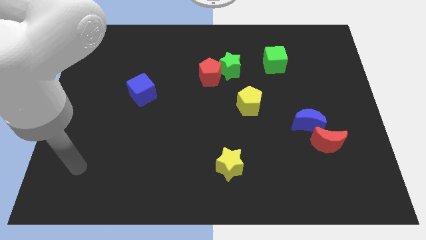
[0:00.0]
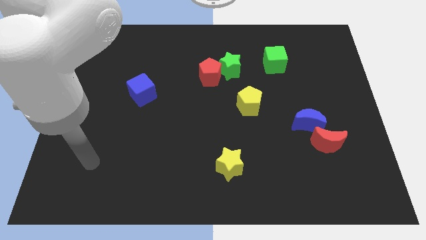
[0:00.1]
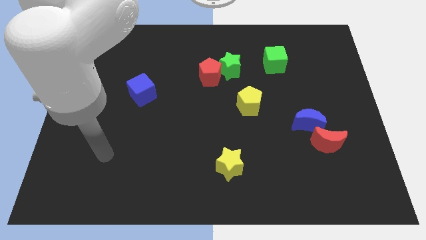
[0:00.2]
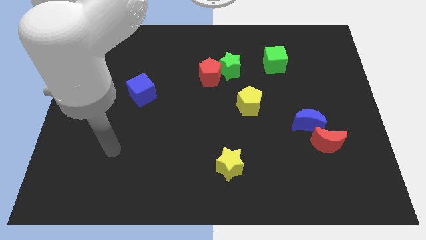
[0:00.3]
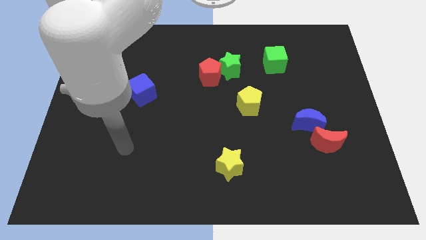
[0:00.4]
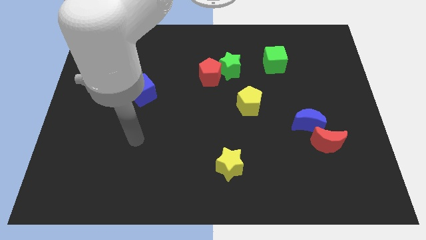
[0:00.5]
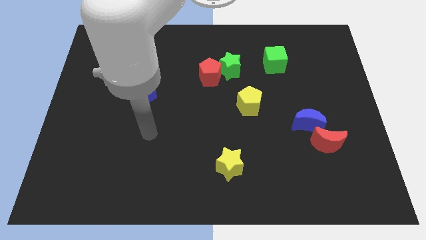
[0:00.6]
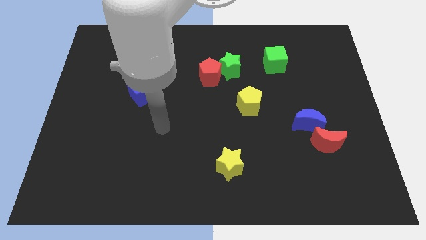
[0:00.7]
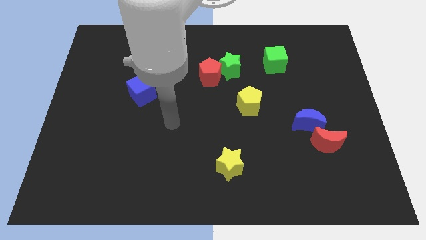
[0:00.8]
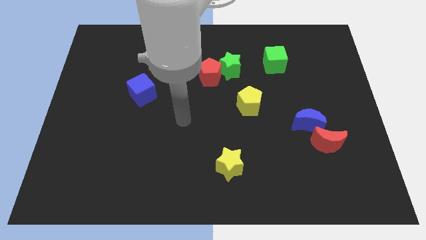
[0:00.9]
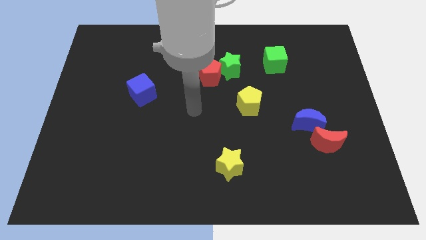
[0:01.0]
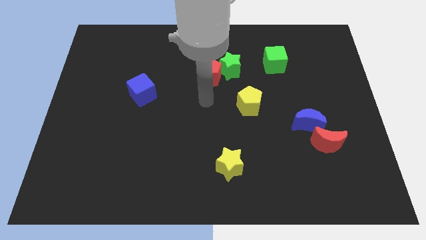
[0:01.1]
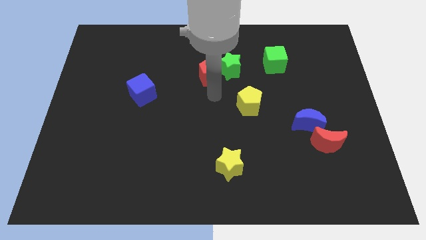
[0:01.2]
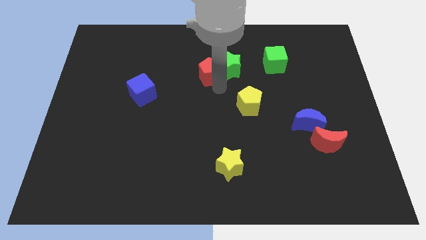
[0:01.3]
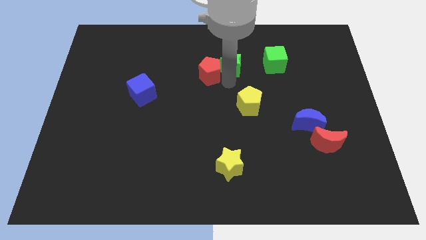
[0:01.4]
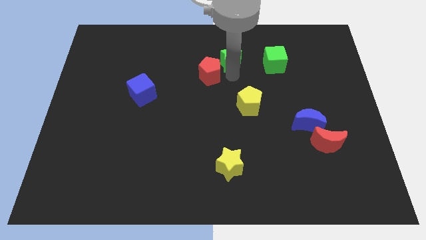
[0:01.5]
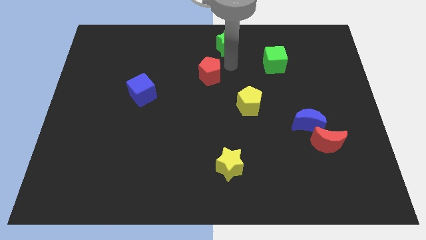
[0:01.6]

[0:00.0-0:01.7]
separate the red pentagon from the green star

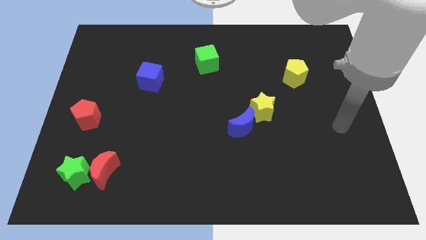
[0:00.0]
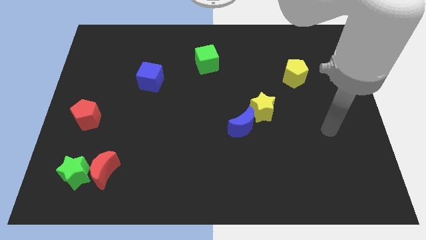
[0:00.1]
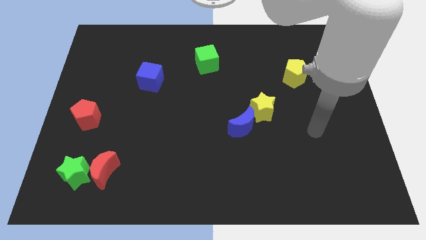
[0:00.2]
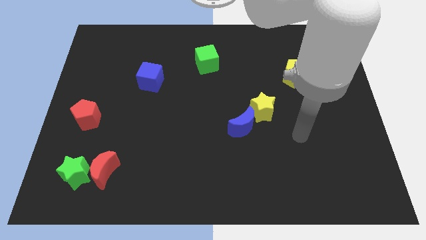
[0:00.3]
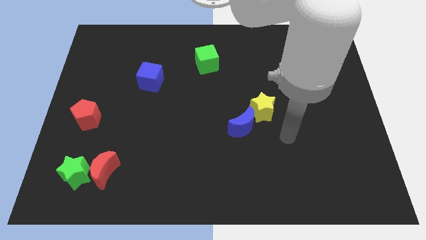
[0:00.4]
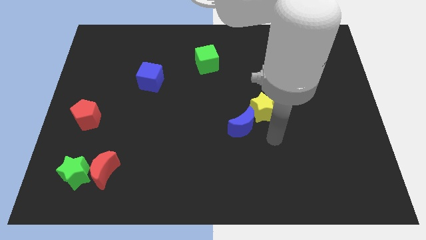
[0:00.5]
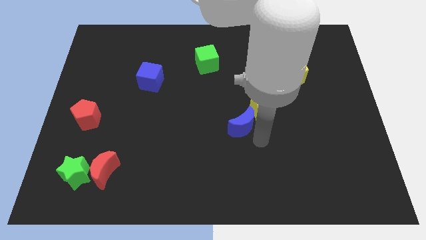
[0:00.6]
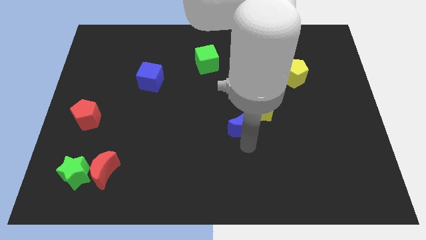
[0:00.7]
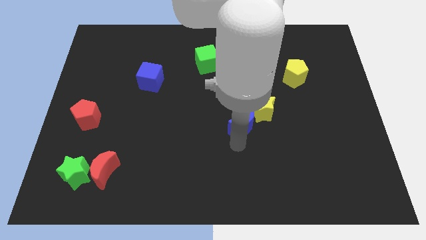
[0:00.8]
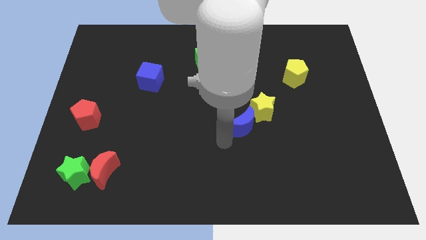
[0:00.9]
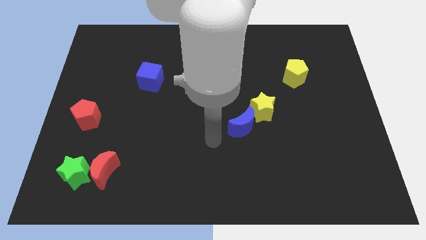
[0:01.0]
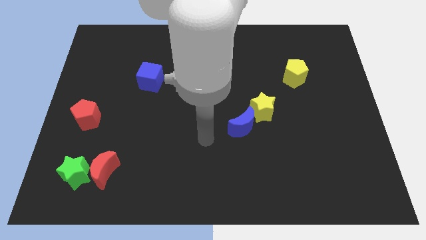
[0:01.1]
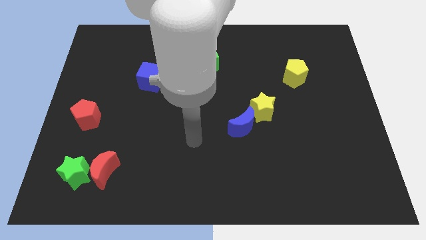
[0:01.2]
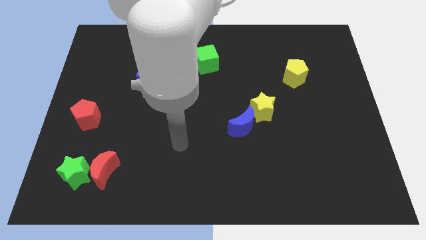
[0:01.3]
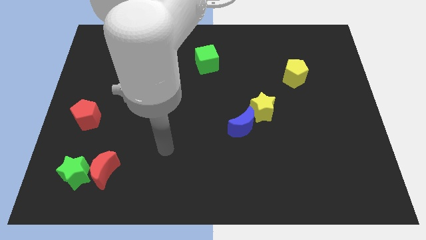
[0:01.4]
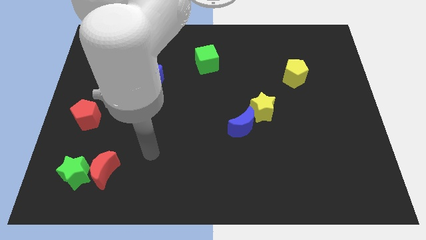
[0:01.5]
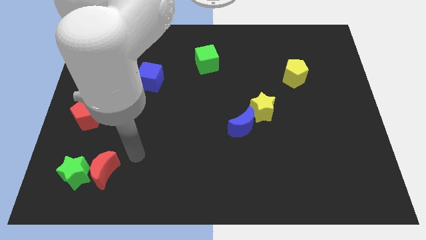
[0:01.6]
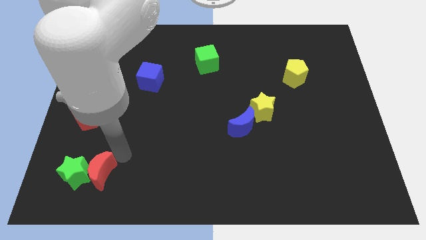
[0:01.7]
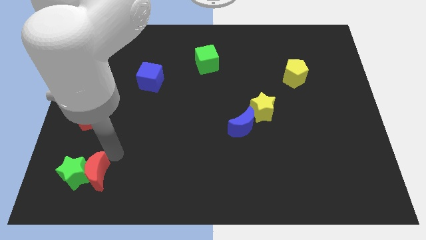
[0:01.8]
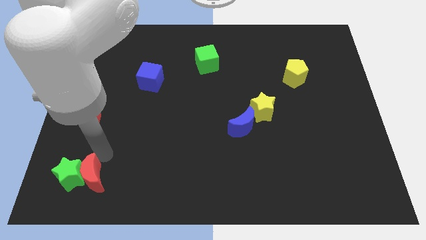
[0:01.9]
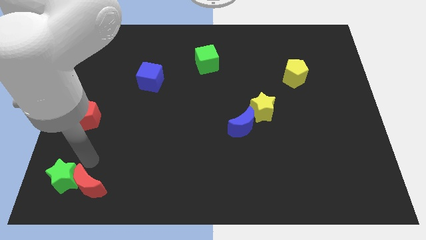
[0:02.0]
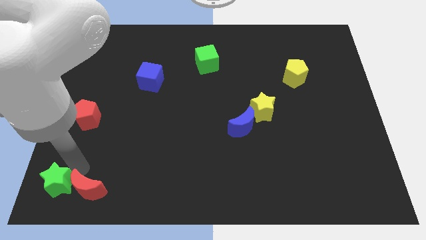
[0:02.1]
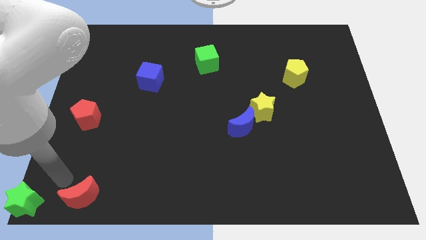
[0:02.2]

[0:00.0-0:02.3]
pull the red moon apart from the green star

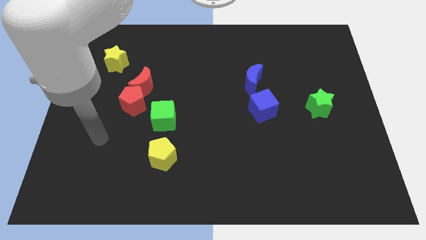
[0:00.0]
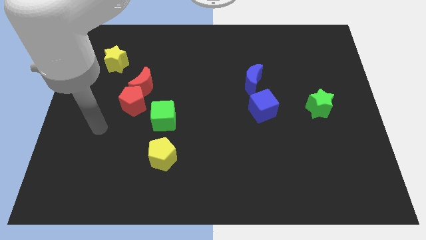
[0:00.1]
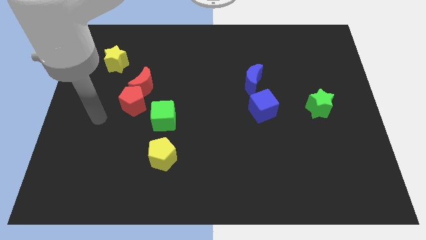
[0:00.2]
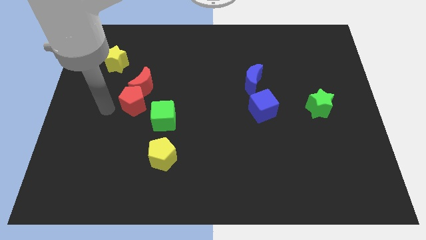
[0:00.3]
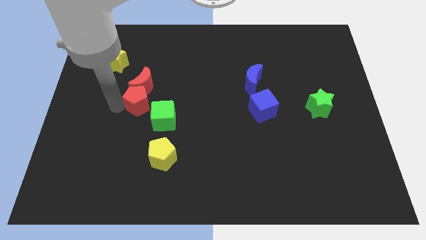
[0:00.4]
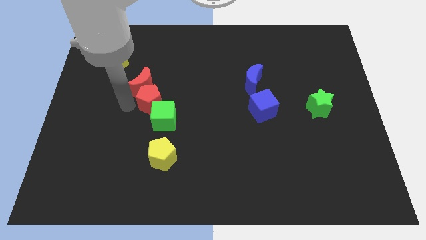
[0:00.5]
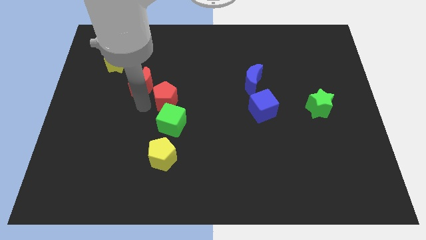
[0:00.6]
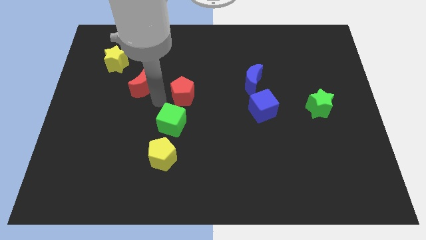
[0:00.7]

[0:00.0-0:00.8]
separate the red moon from the red pentagon

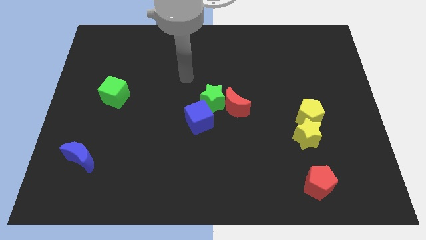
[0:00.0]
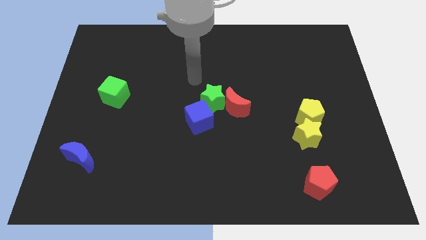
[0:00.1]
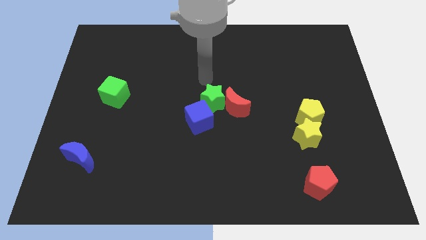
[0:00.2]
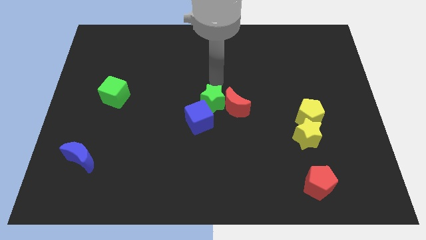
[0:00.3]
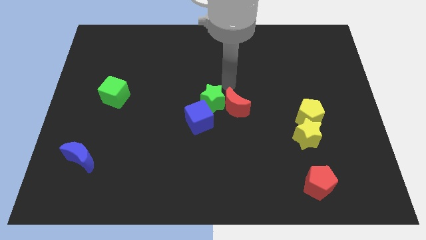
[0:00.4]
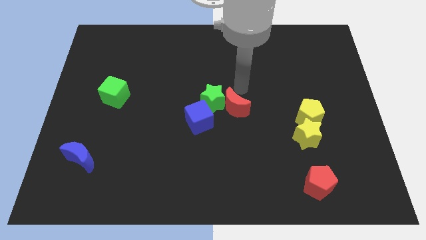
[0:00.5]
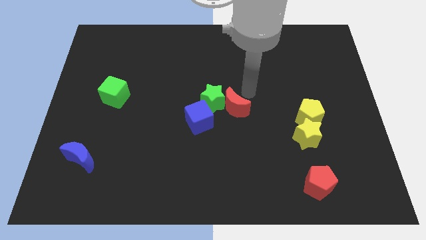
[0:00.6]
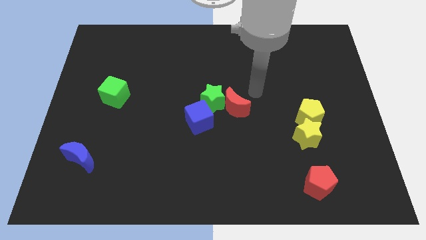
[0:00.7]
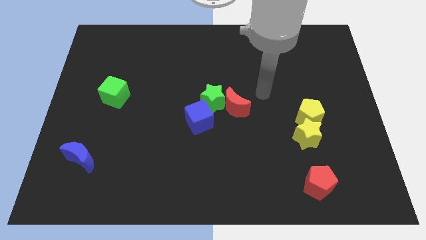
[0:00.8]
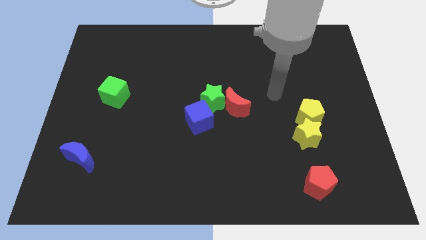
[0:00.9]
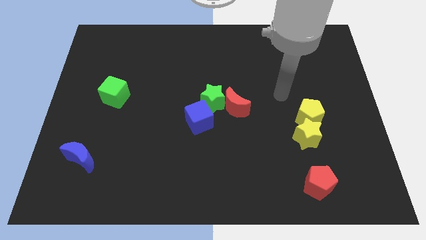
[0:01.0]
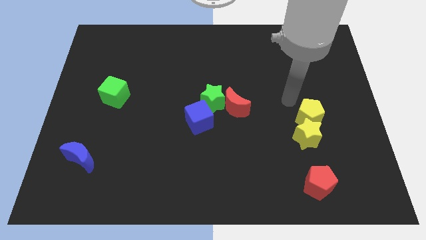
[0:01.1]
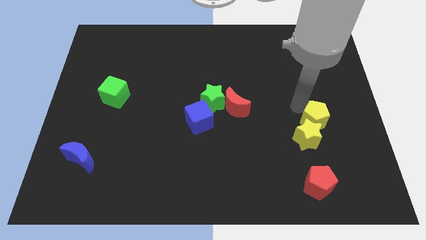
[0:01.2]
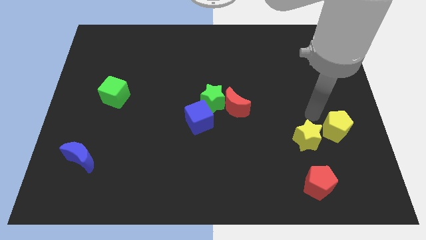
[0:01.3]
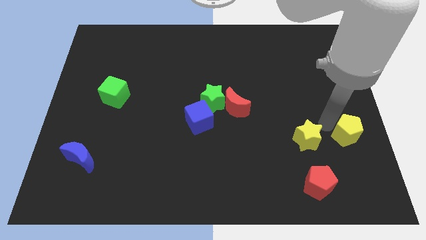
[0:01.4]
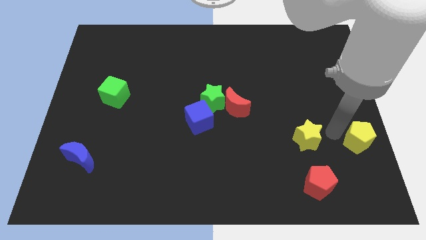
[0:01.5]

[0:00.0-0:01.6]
pull the yellow star apart from the yellow pentagon

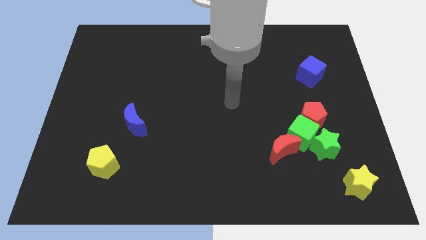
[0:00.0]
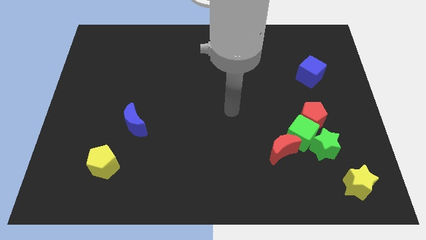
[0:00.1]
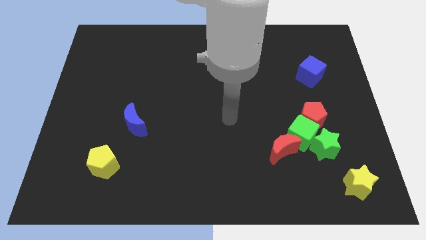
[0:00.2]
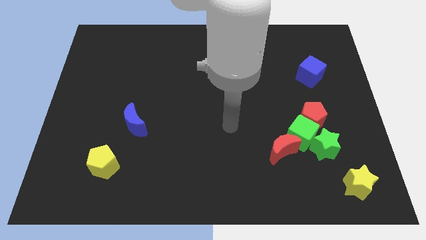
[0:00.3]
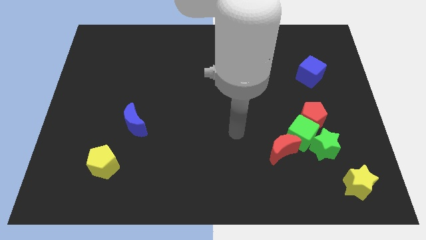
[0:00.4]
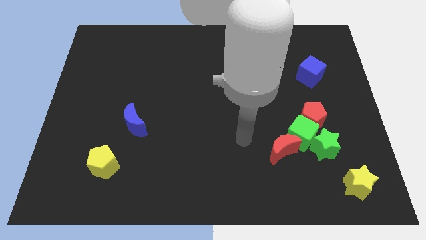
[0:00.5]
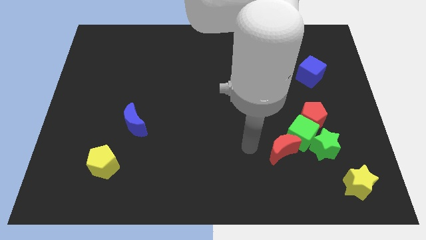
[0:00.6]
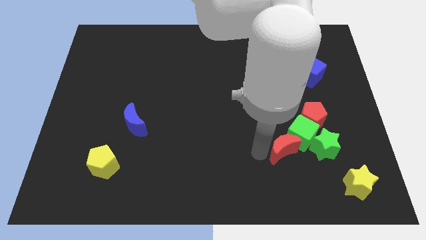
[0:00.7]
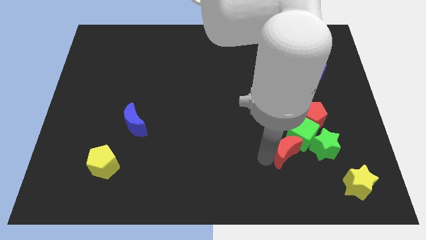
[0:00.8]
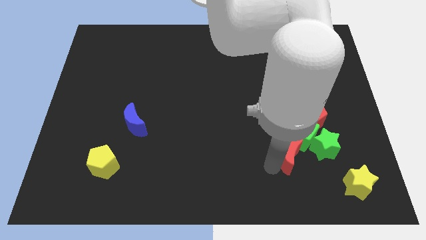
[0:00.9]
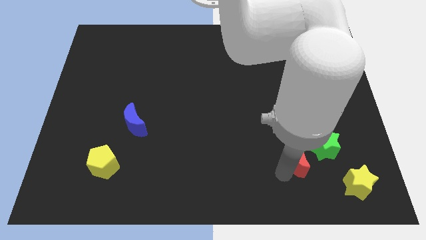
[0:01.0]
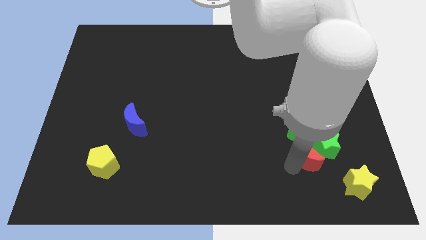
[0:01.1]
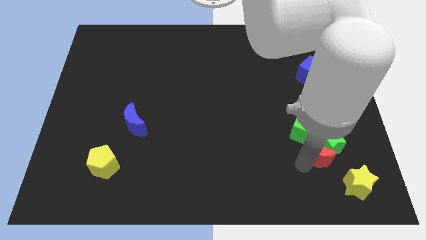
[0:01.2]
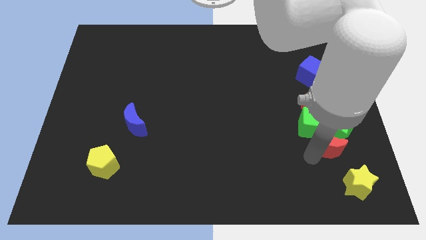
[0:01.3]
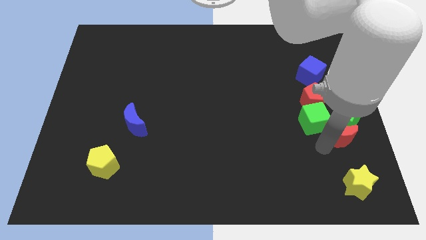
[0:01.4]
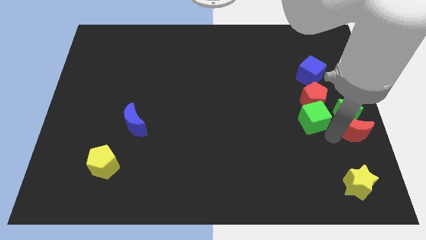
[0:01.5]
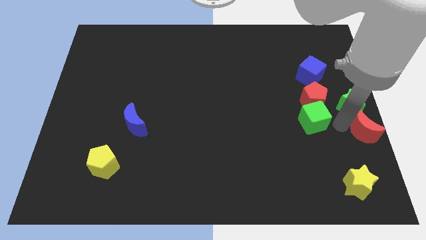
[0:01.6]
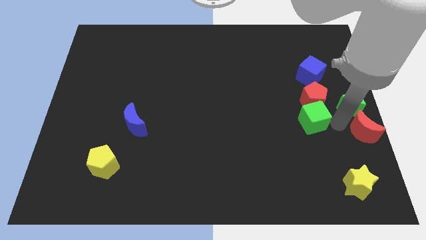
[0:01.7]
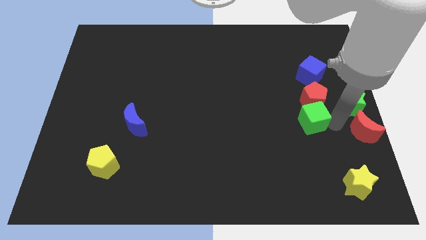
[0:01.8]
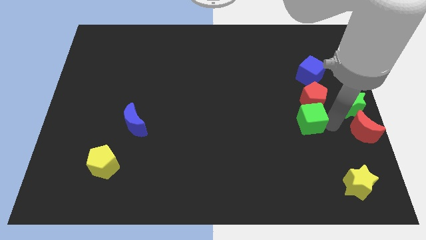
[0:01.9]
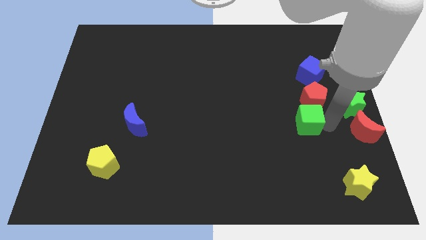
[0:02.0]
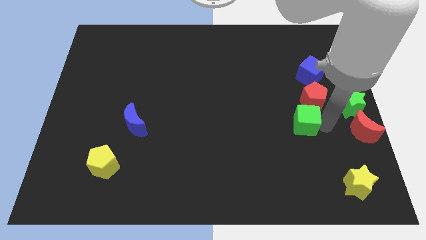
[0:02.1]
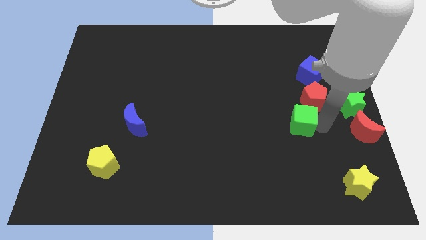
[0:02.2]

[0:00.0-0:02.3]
separate the green cube from the red pentagon, green star, and red moon

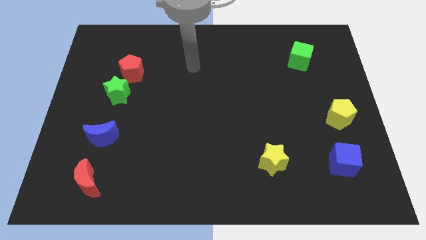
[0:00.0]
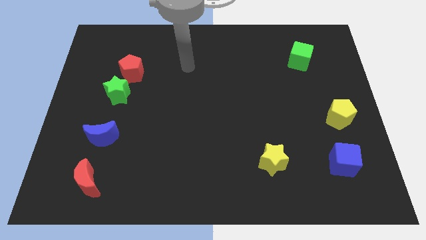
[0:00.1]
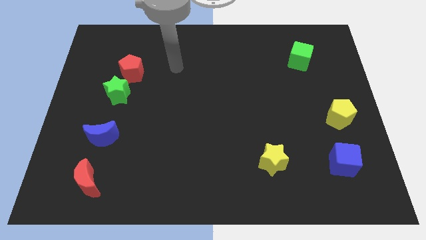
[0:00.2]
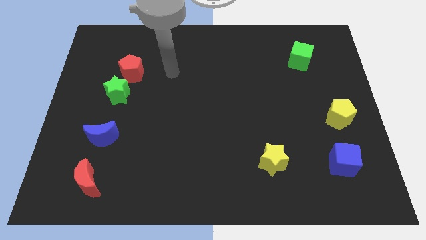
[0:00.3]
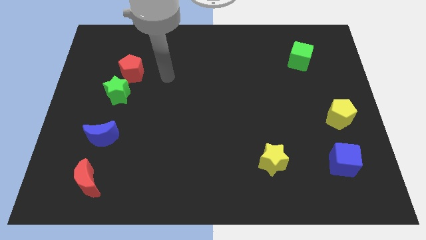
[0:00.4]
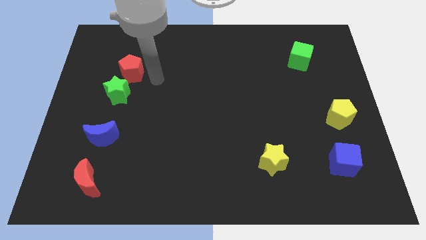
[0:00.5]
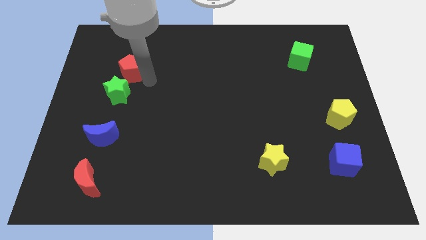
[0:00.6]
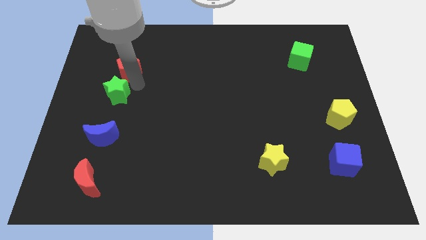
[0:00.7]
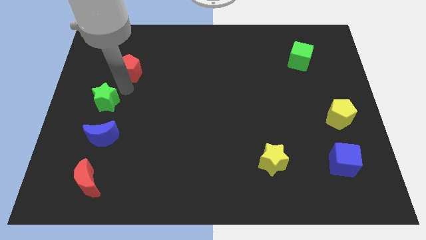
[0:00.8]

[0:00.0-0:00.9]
pull the red pentagon apart from the green star
